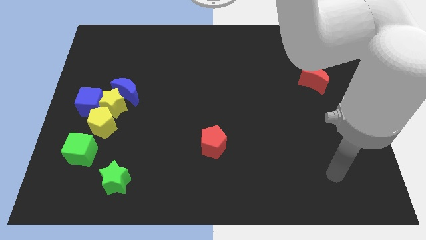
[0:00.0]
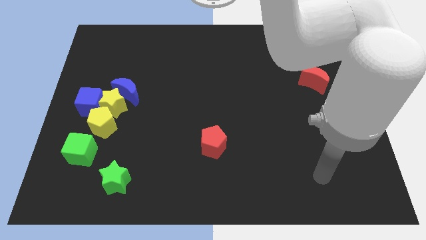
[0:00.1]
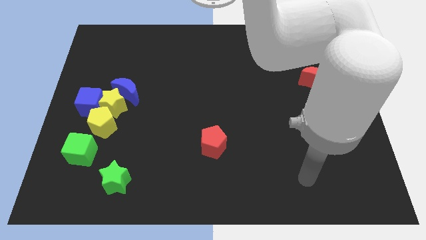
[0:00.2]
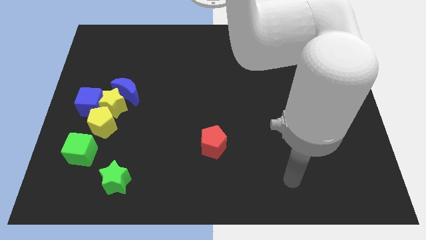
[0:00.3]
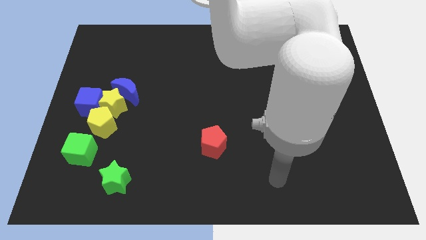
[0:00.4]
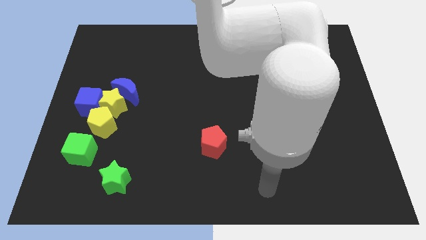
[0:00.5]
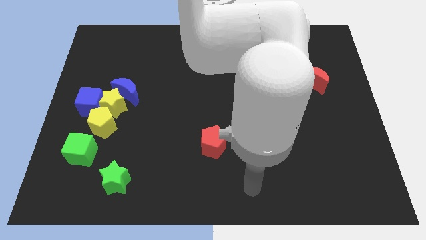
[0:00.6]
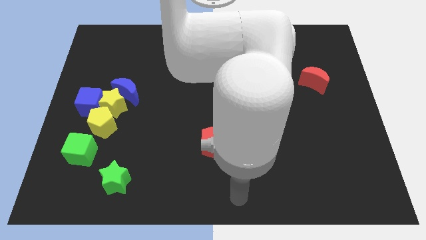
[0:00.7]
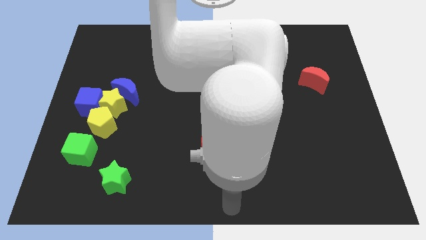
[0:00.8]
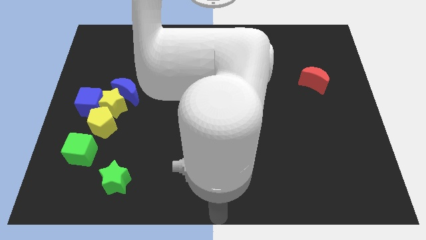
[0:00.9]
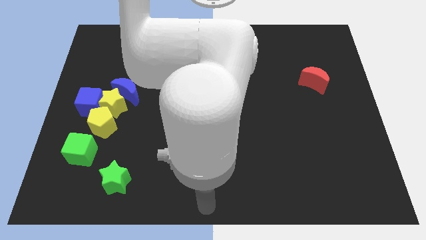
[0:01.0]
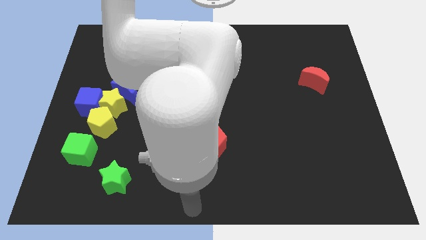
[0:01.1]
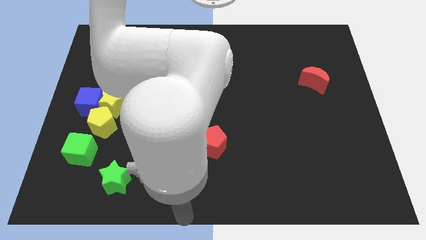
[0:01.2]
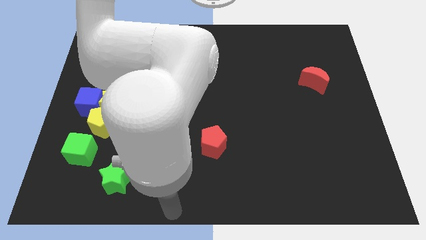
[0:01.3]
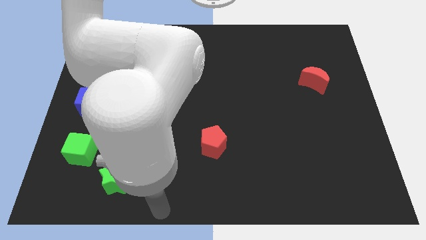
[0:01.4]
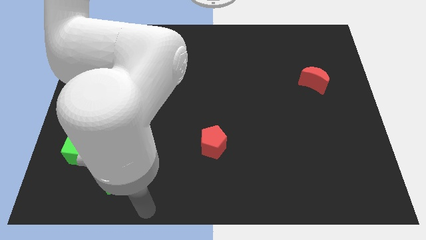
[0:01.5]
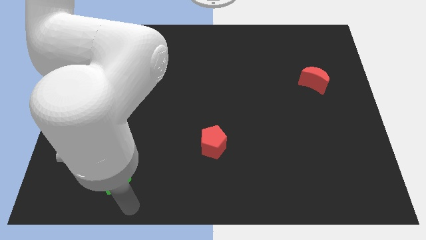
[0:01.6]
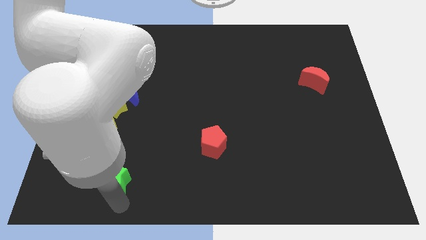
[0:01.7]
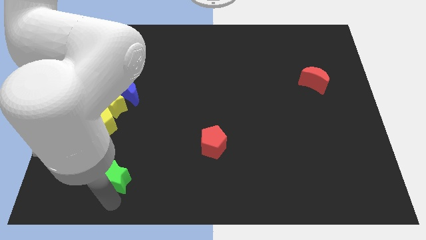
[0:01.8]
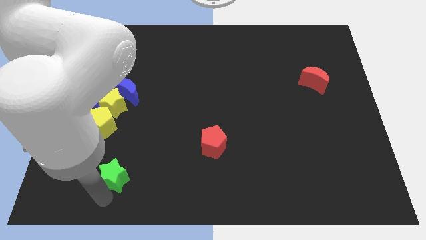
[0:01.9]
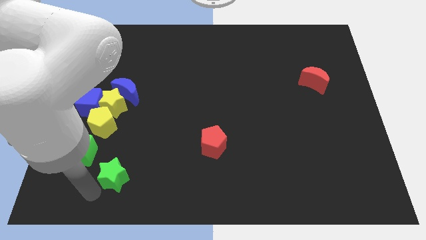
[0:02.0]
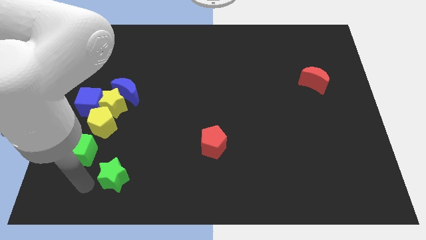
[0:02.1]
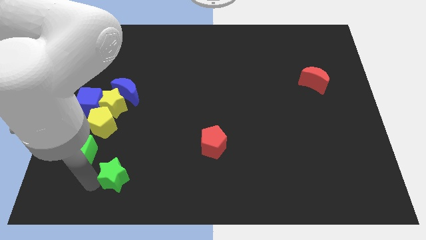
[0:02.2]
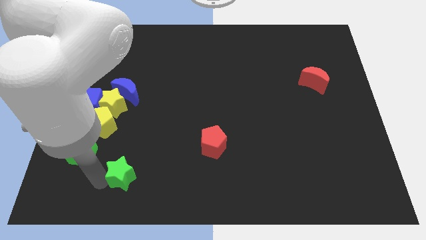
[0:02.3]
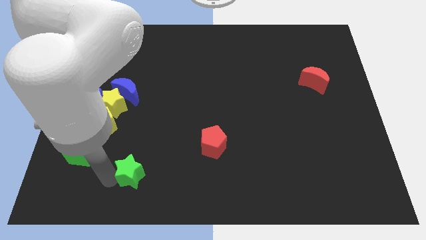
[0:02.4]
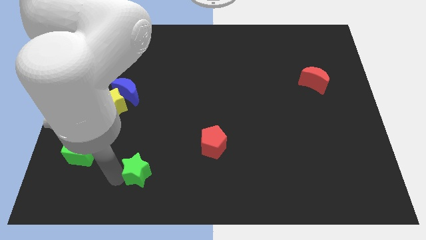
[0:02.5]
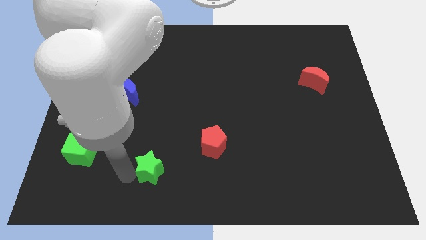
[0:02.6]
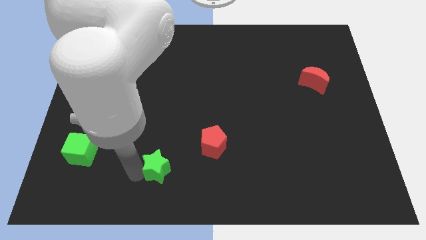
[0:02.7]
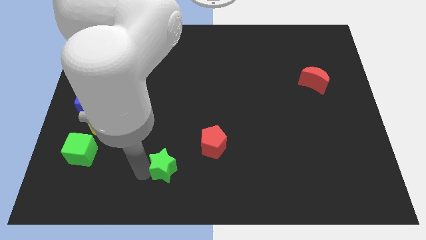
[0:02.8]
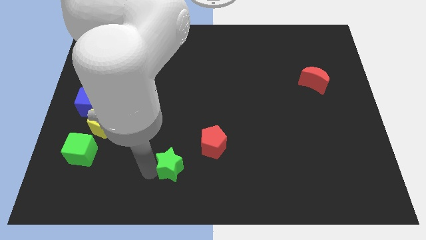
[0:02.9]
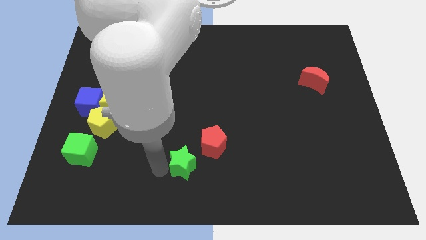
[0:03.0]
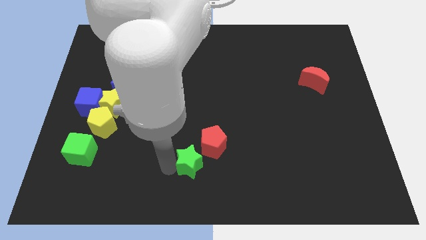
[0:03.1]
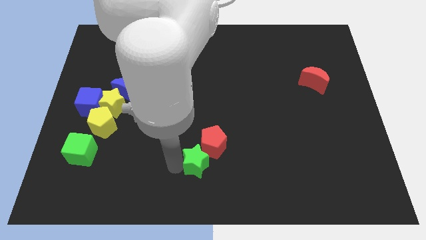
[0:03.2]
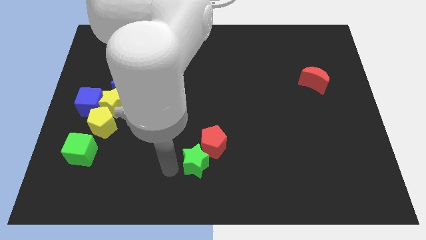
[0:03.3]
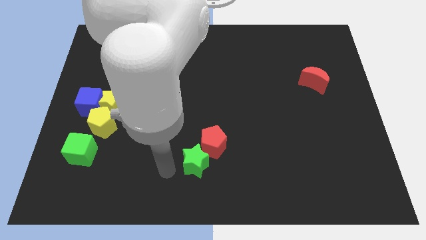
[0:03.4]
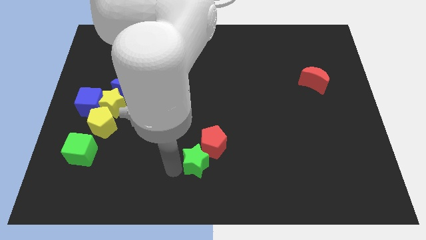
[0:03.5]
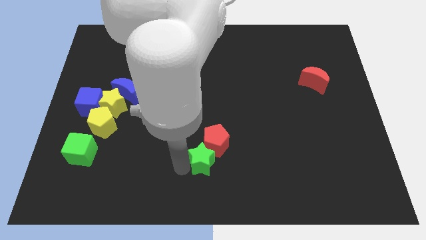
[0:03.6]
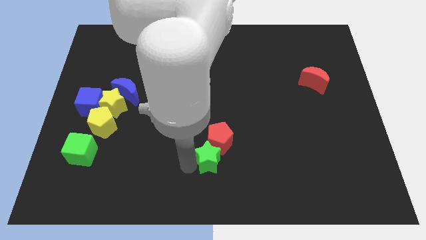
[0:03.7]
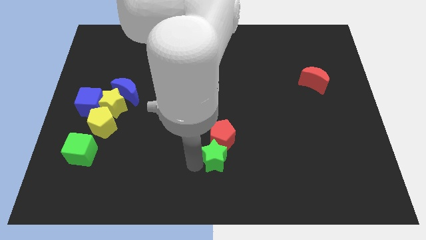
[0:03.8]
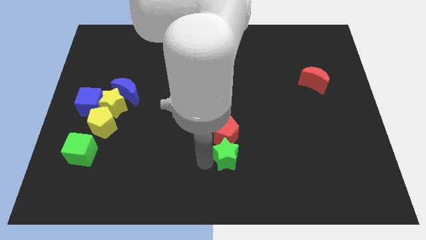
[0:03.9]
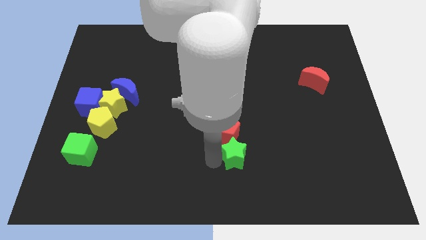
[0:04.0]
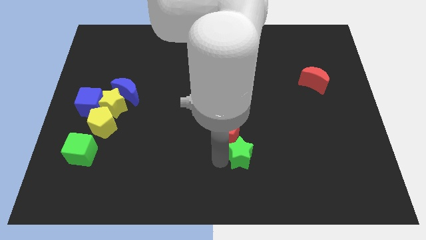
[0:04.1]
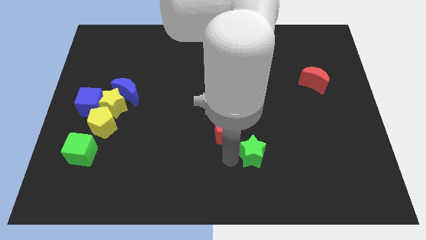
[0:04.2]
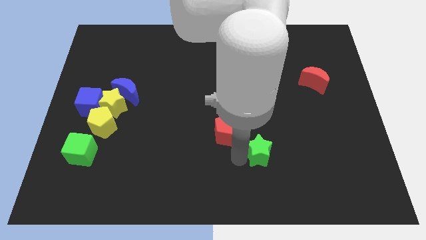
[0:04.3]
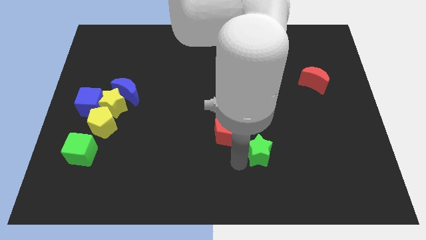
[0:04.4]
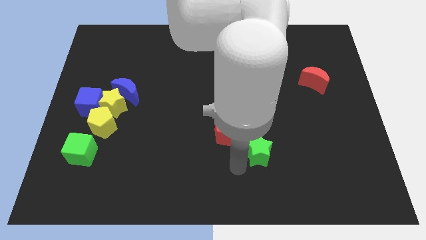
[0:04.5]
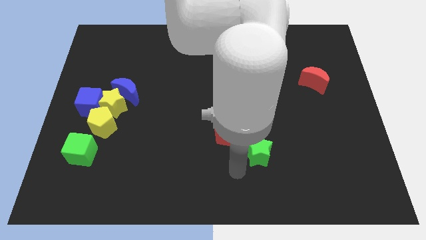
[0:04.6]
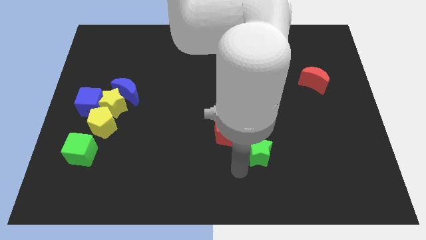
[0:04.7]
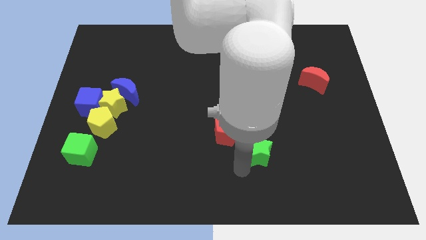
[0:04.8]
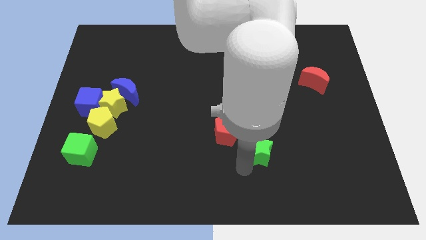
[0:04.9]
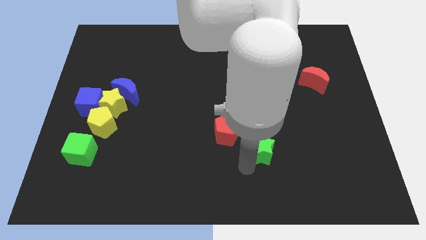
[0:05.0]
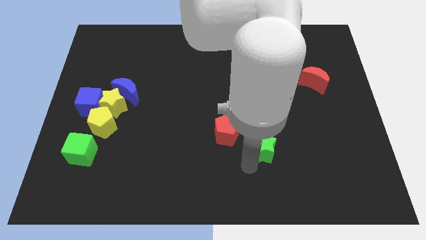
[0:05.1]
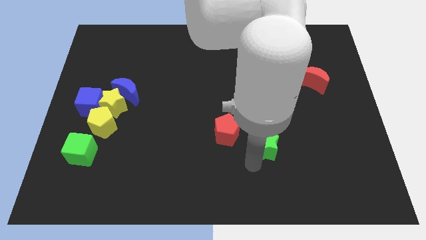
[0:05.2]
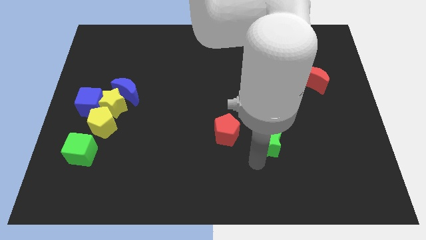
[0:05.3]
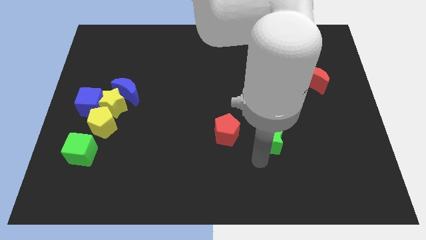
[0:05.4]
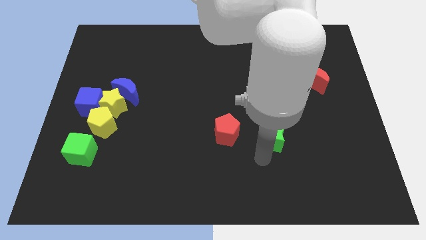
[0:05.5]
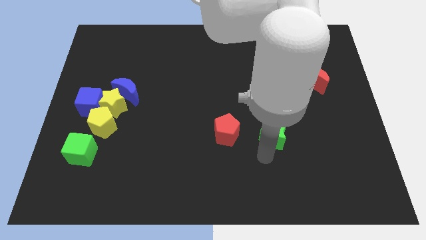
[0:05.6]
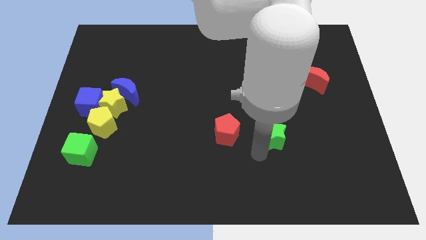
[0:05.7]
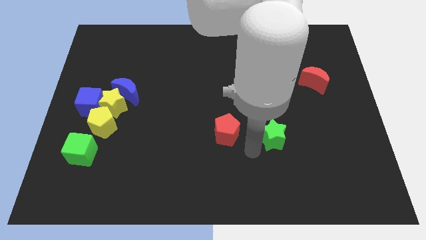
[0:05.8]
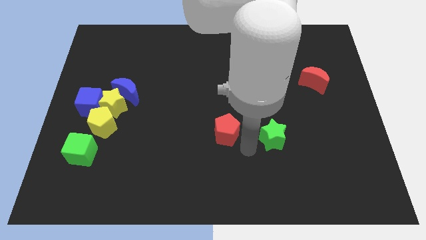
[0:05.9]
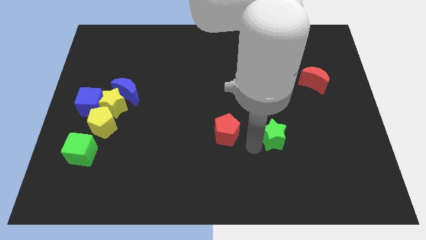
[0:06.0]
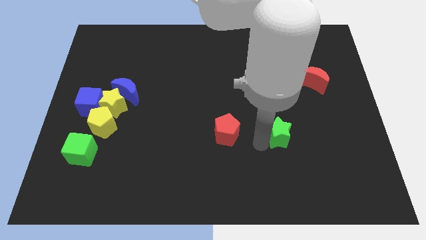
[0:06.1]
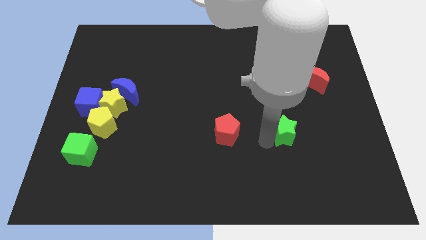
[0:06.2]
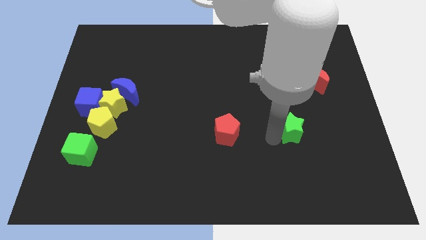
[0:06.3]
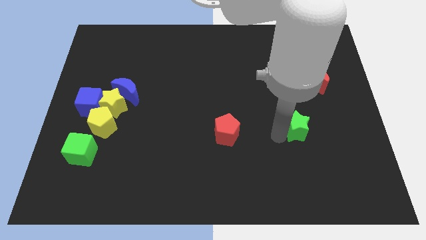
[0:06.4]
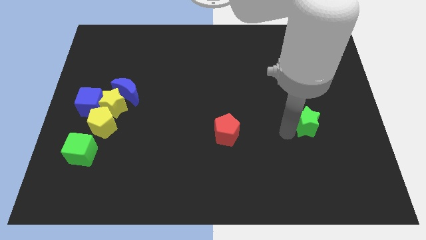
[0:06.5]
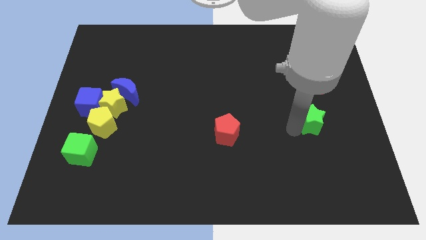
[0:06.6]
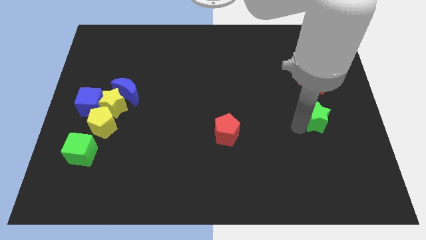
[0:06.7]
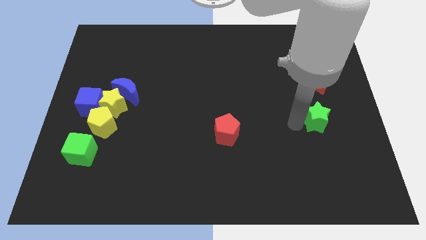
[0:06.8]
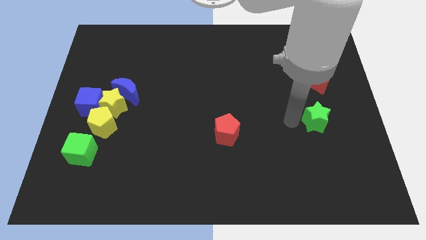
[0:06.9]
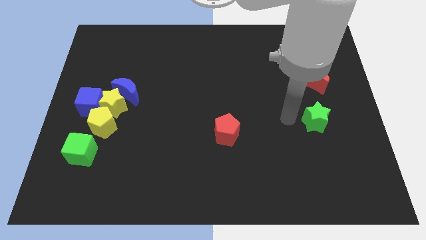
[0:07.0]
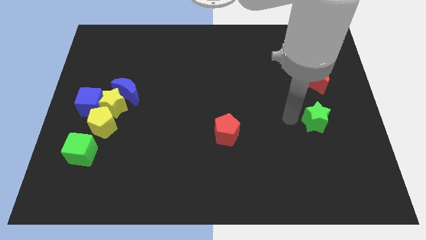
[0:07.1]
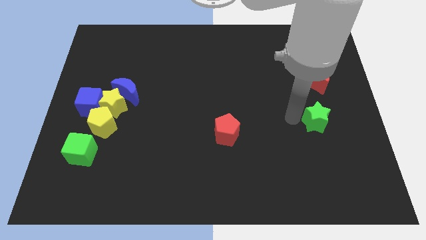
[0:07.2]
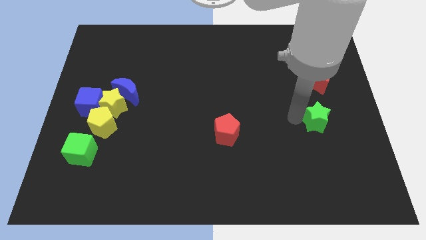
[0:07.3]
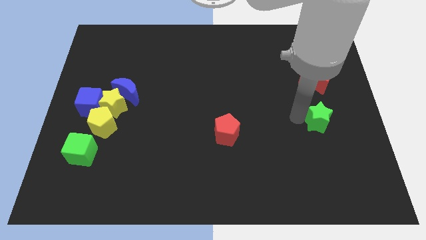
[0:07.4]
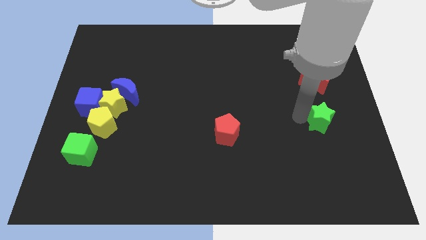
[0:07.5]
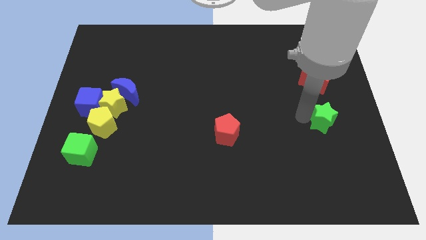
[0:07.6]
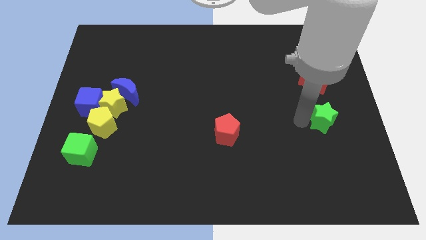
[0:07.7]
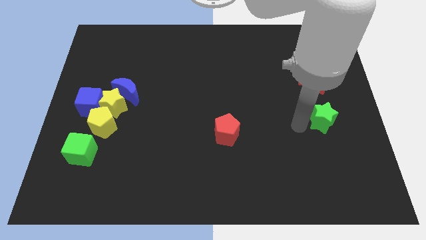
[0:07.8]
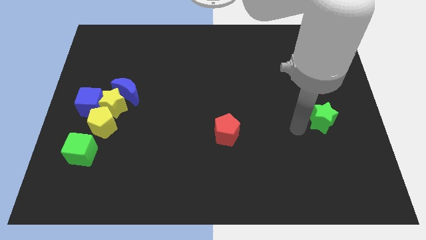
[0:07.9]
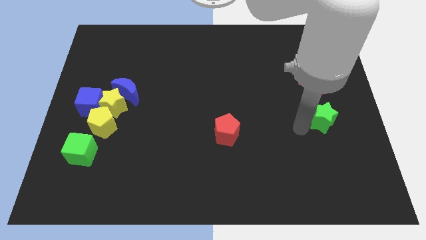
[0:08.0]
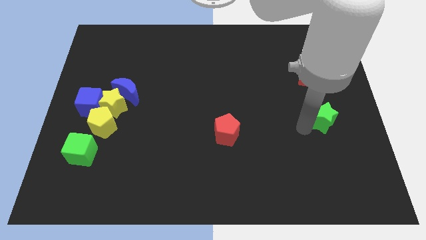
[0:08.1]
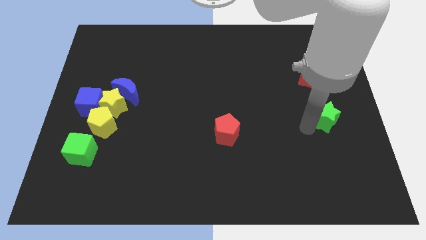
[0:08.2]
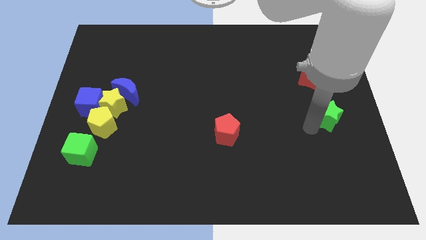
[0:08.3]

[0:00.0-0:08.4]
slide the green star to the center right
